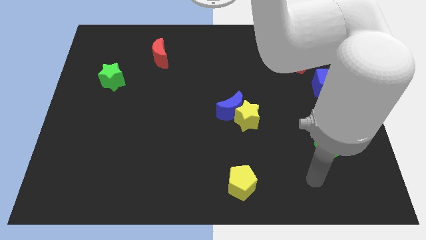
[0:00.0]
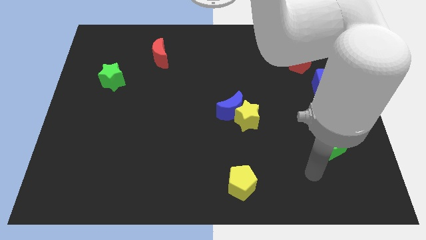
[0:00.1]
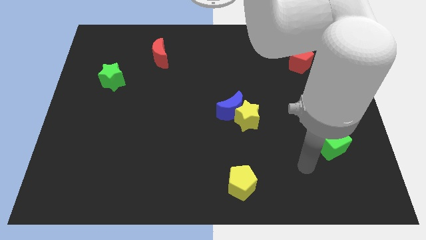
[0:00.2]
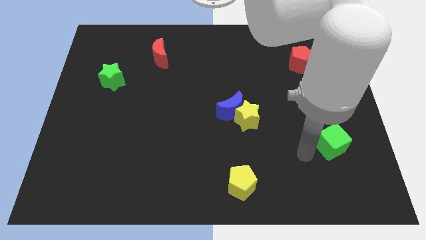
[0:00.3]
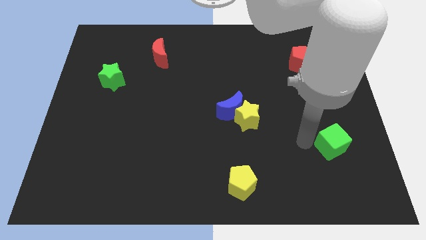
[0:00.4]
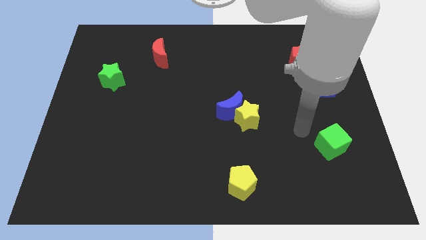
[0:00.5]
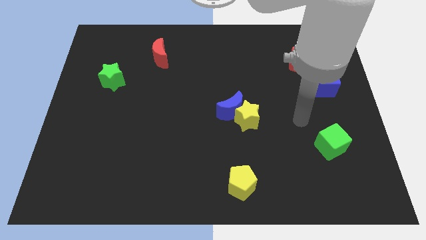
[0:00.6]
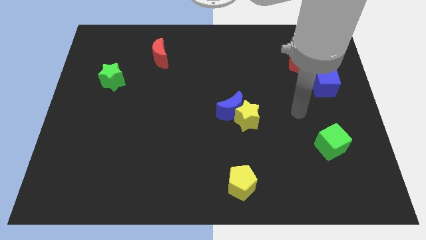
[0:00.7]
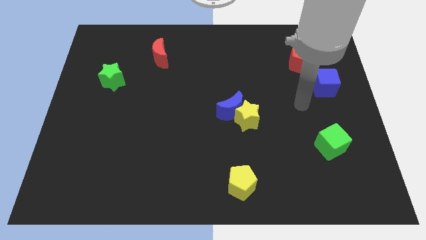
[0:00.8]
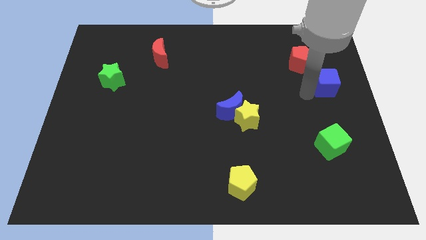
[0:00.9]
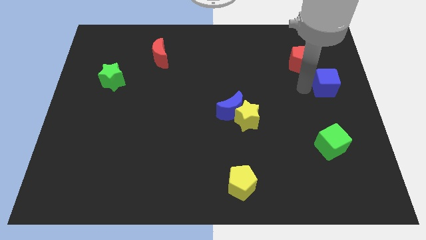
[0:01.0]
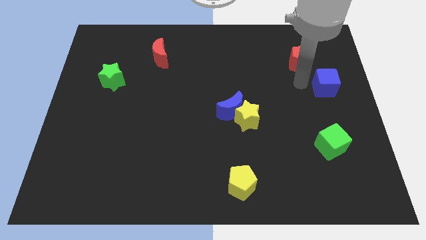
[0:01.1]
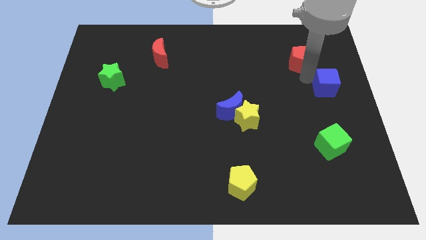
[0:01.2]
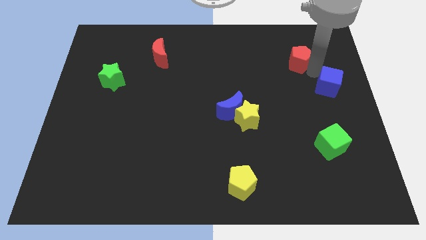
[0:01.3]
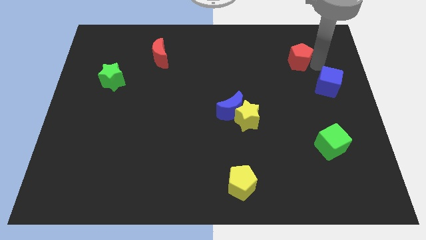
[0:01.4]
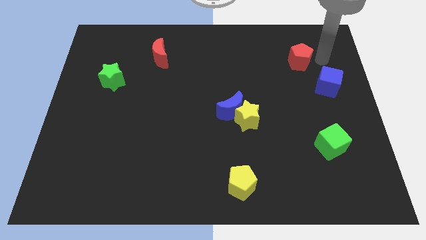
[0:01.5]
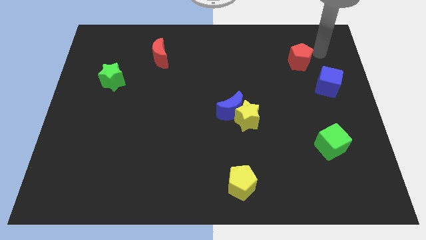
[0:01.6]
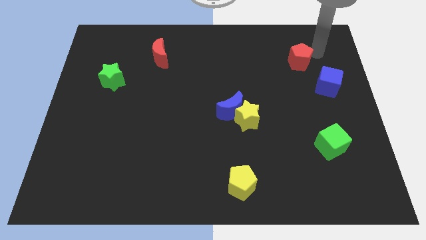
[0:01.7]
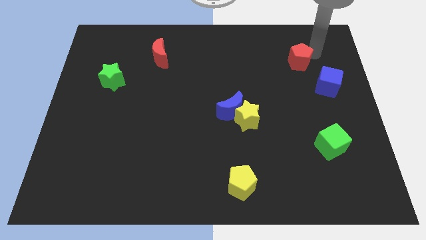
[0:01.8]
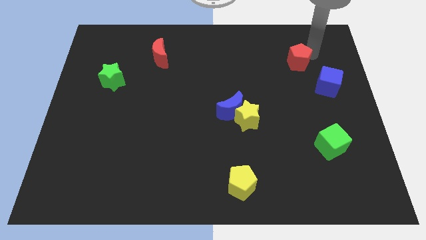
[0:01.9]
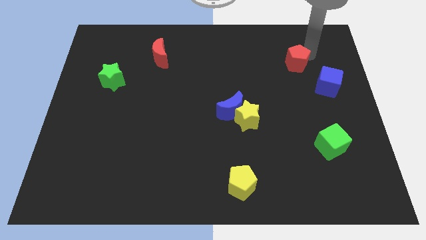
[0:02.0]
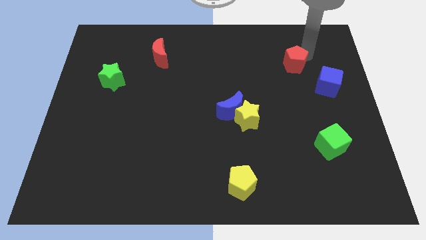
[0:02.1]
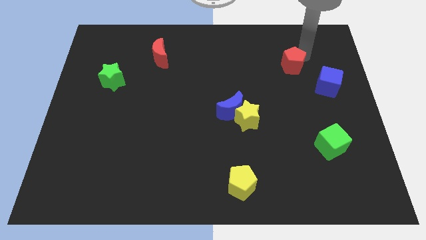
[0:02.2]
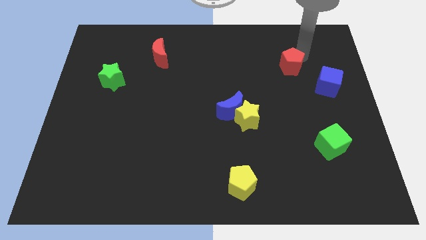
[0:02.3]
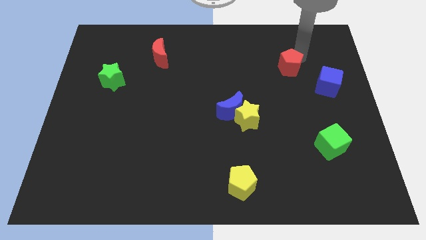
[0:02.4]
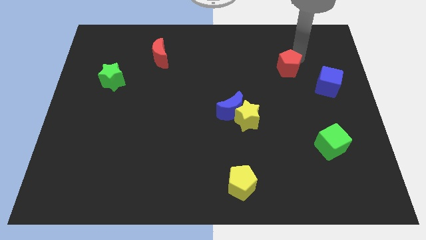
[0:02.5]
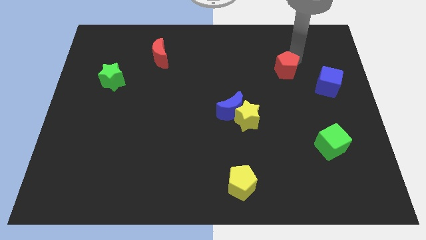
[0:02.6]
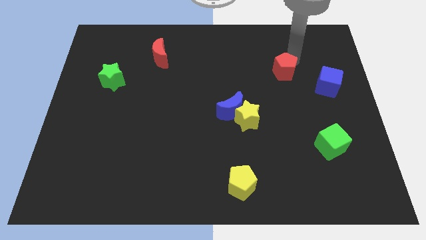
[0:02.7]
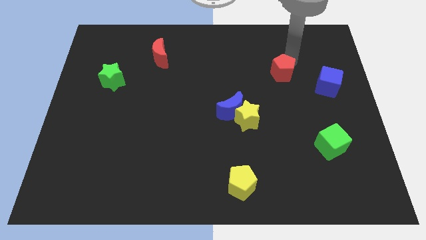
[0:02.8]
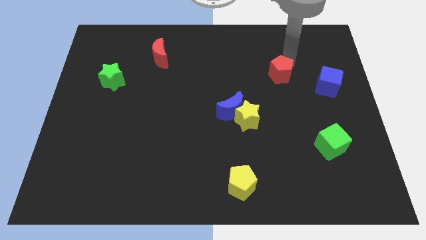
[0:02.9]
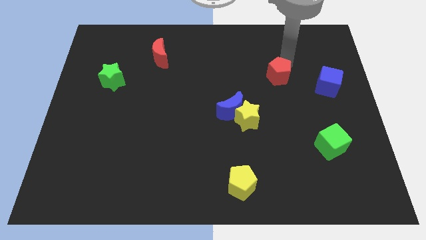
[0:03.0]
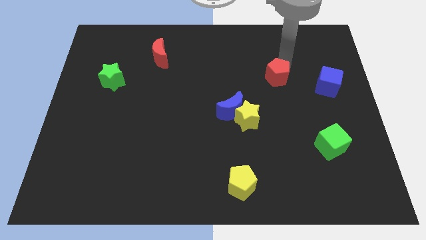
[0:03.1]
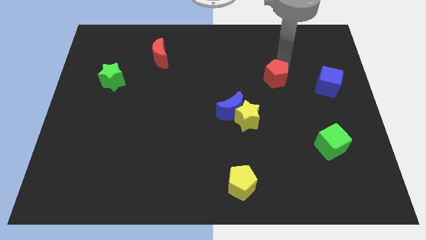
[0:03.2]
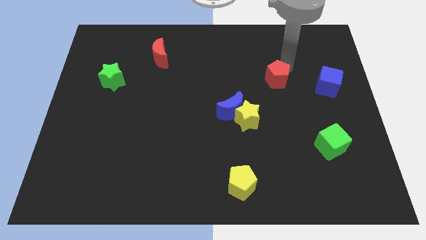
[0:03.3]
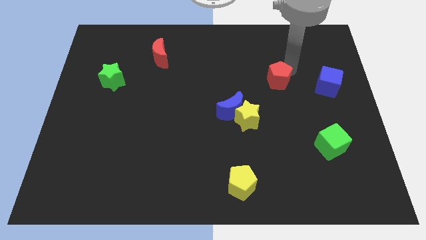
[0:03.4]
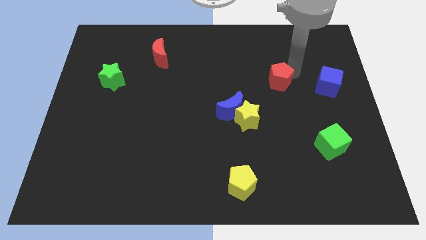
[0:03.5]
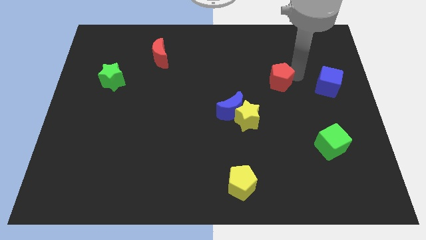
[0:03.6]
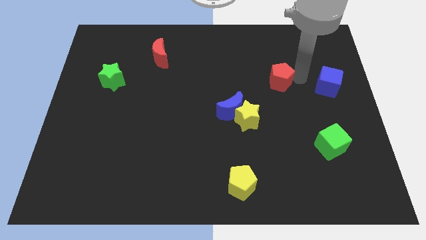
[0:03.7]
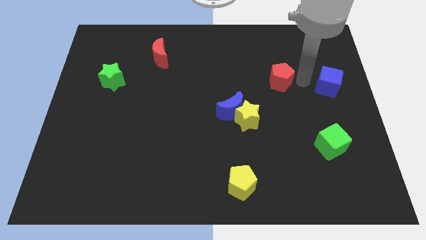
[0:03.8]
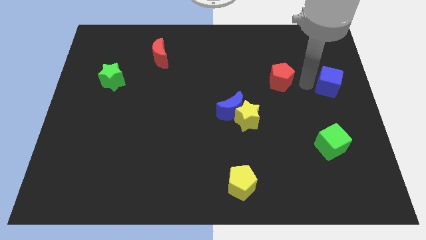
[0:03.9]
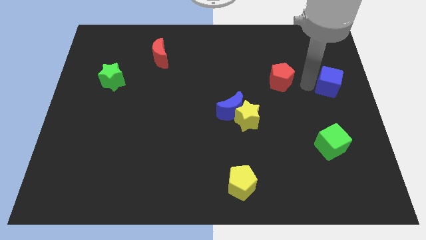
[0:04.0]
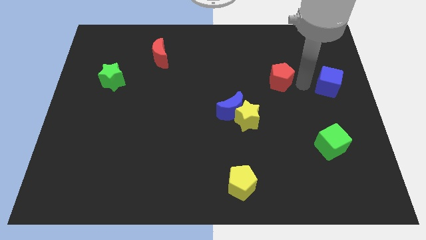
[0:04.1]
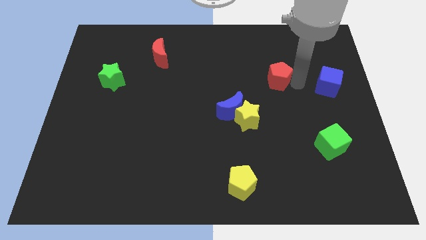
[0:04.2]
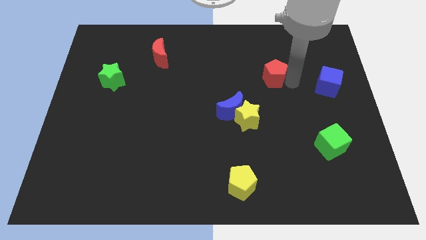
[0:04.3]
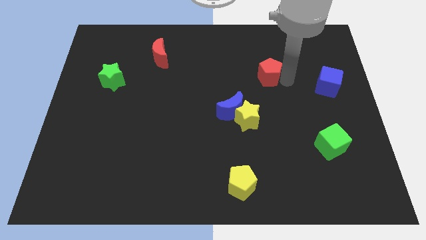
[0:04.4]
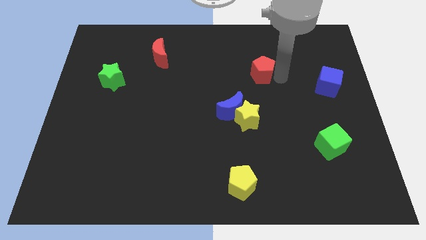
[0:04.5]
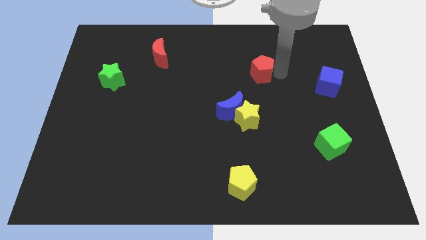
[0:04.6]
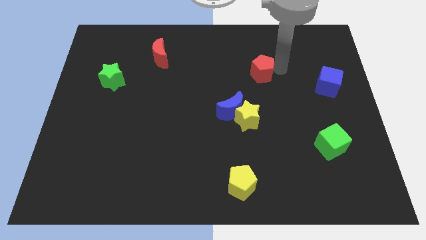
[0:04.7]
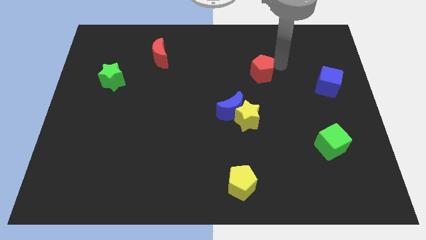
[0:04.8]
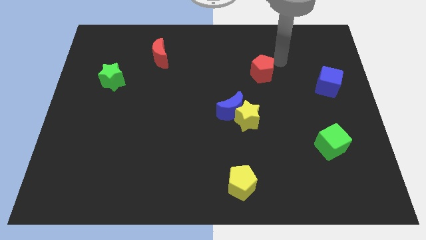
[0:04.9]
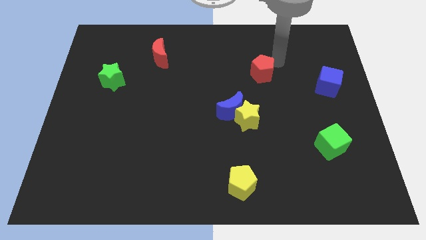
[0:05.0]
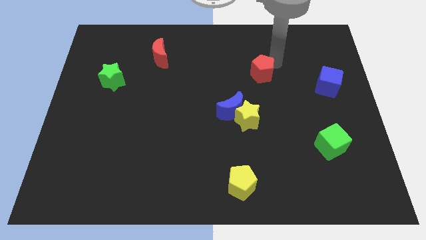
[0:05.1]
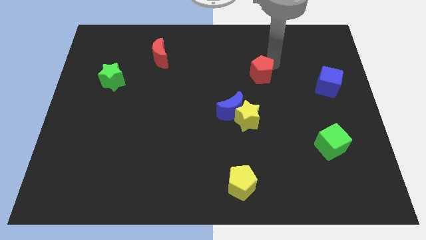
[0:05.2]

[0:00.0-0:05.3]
push the red pentagon to the top side of the yellow star

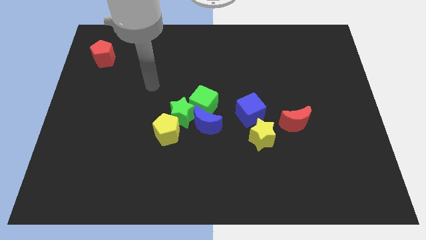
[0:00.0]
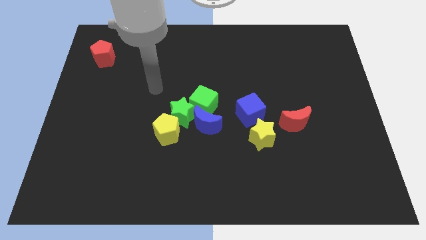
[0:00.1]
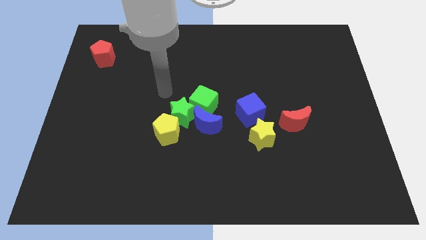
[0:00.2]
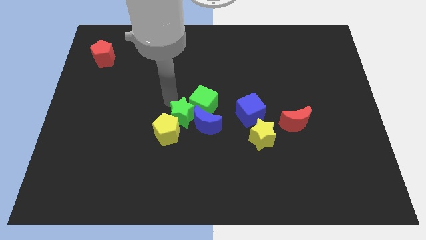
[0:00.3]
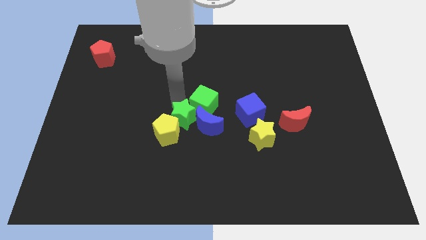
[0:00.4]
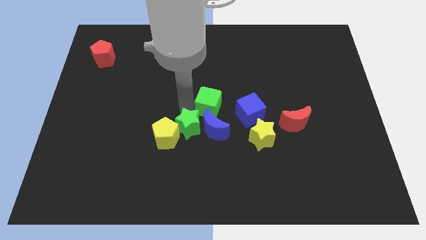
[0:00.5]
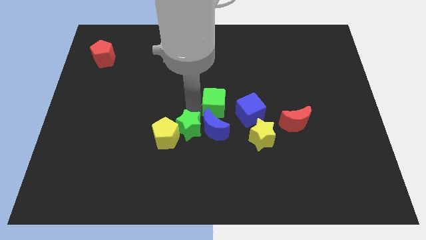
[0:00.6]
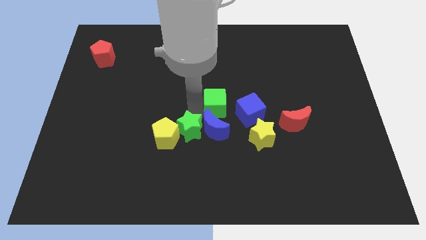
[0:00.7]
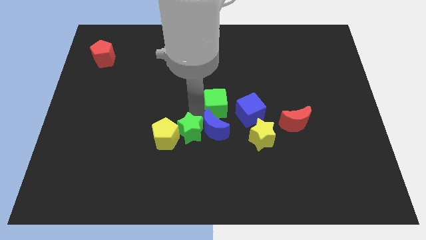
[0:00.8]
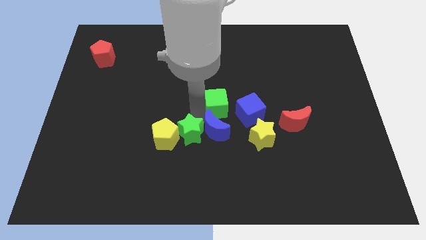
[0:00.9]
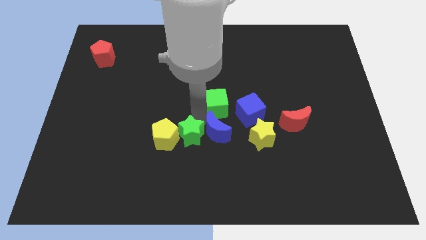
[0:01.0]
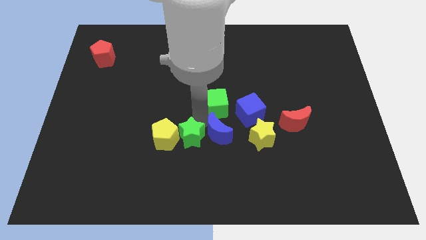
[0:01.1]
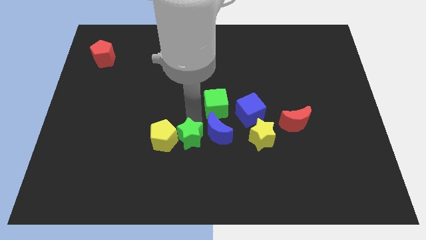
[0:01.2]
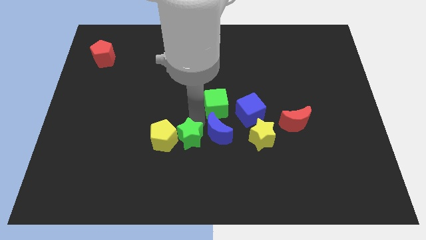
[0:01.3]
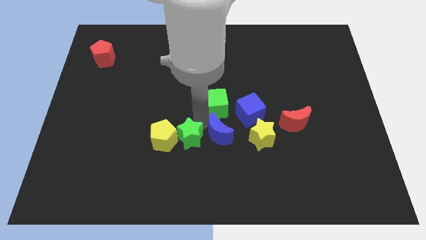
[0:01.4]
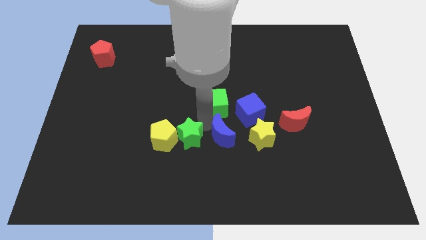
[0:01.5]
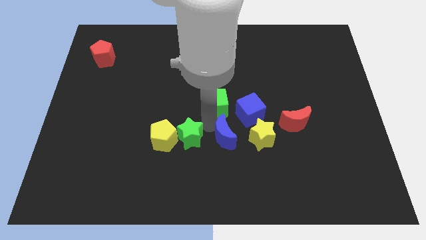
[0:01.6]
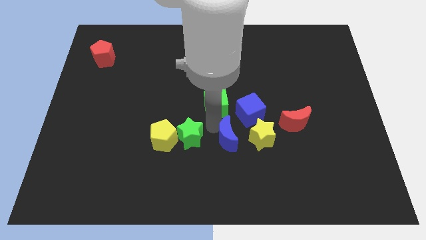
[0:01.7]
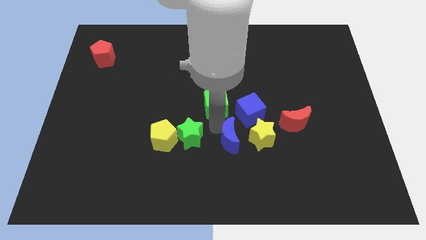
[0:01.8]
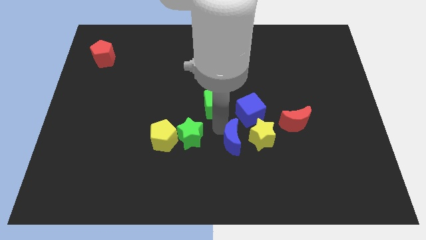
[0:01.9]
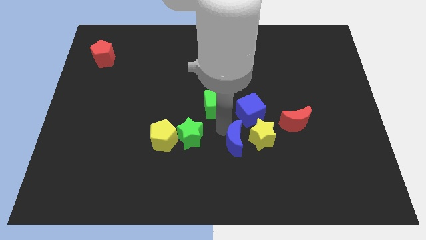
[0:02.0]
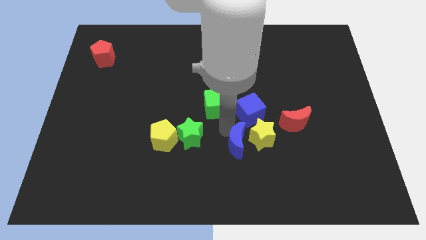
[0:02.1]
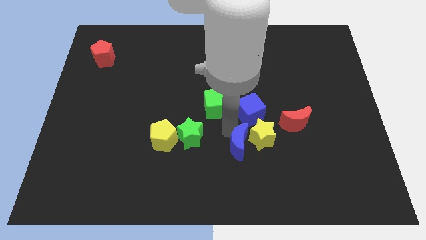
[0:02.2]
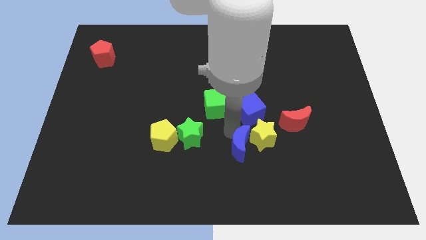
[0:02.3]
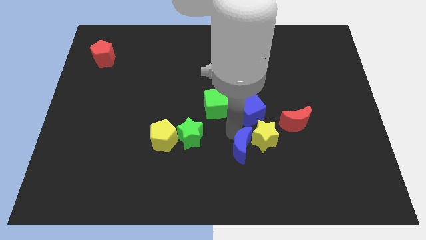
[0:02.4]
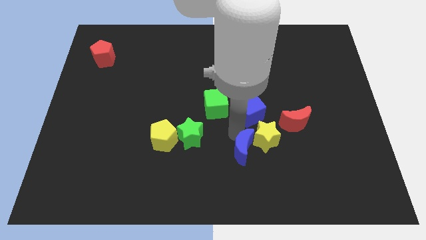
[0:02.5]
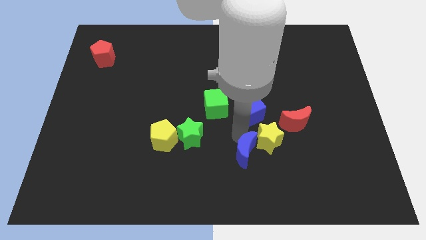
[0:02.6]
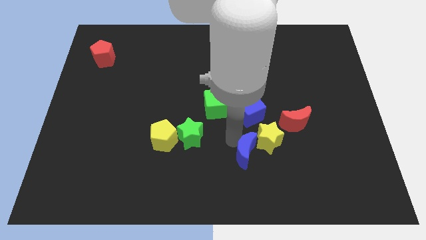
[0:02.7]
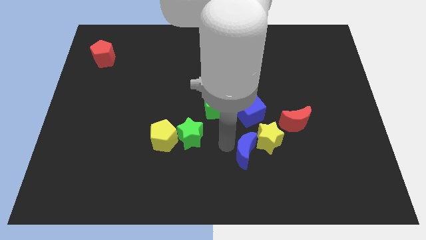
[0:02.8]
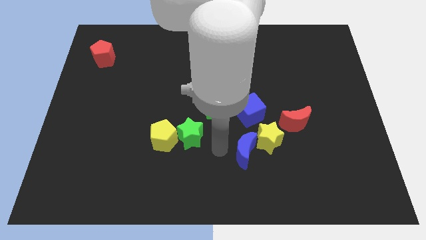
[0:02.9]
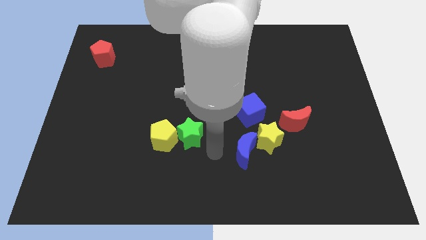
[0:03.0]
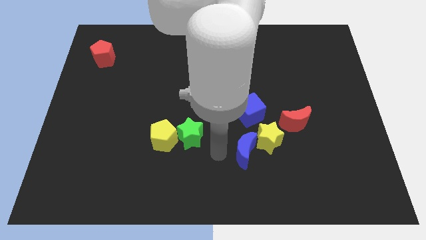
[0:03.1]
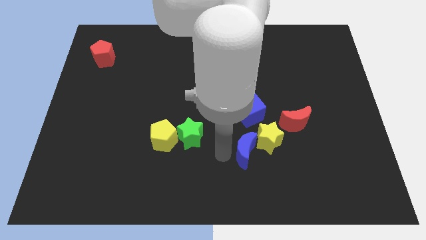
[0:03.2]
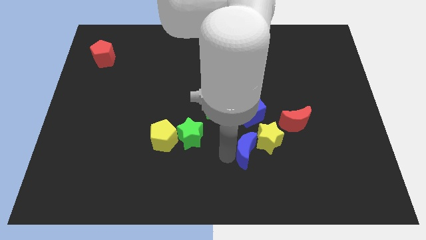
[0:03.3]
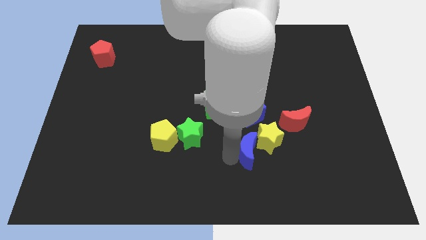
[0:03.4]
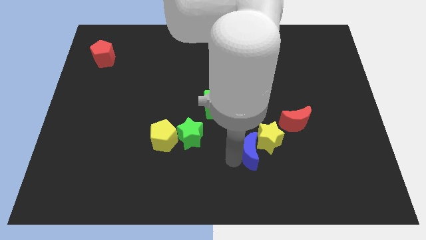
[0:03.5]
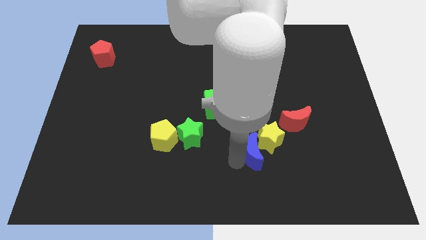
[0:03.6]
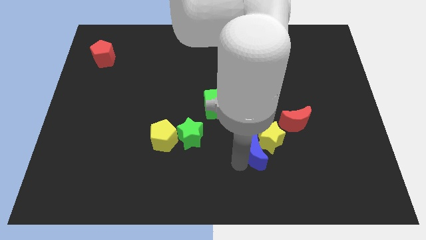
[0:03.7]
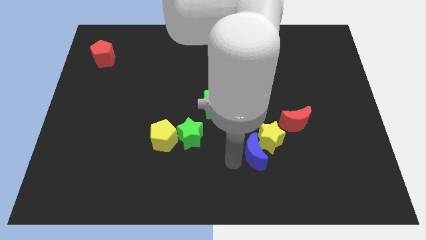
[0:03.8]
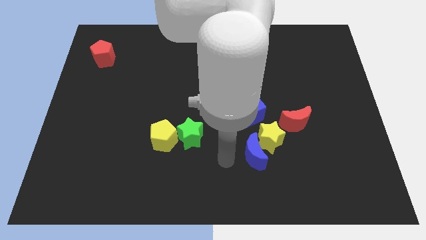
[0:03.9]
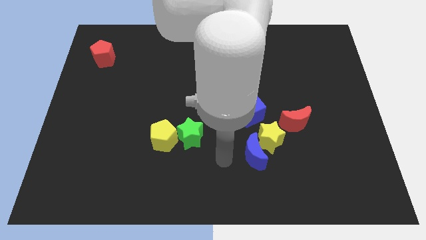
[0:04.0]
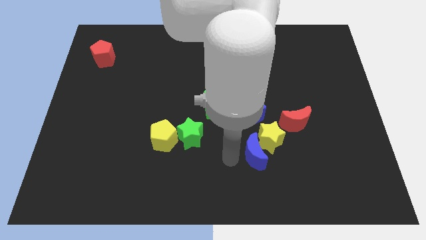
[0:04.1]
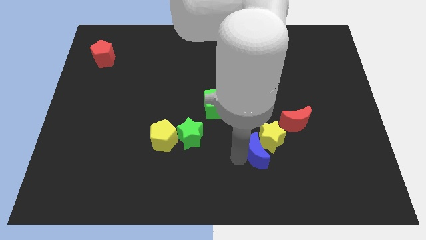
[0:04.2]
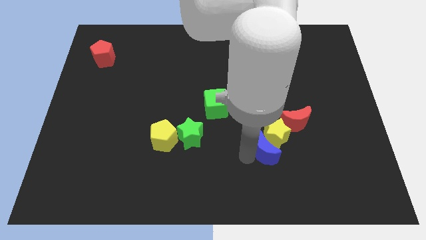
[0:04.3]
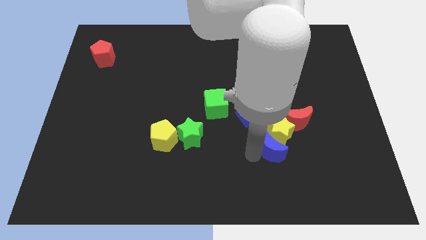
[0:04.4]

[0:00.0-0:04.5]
move the blue moon to the bottom right side of the blue cube
